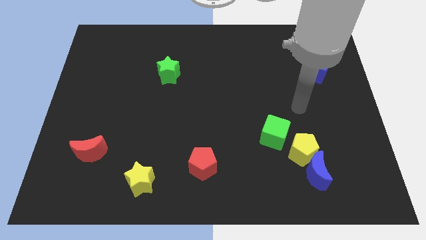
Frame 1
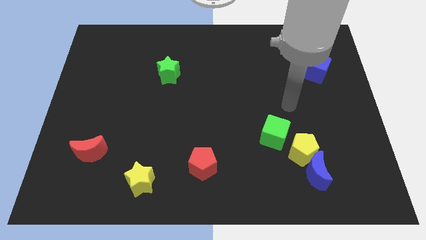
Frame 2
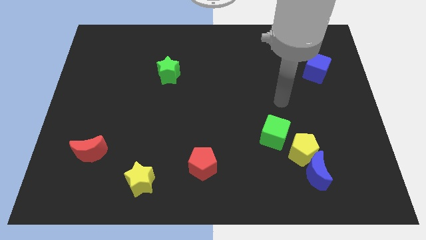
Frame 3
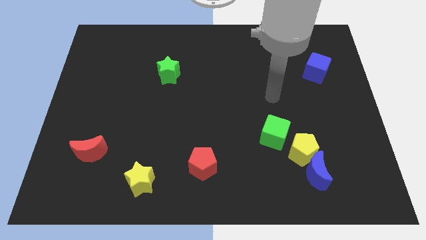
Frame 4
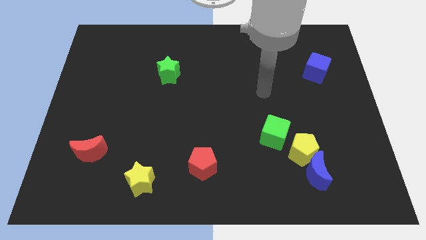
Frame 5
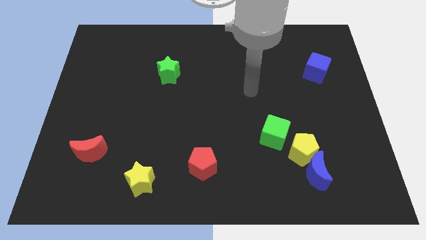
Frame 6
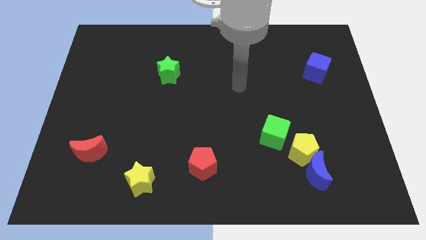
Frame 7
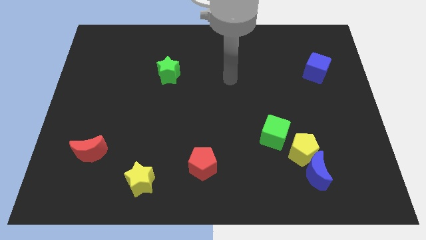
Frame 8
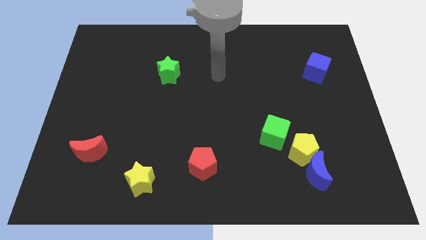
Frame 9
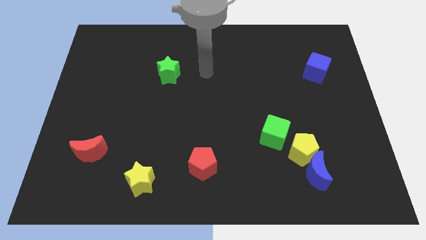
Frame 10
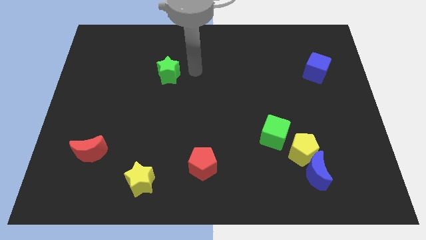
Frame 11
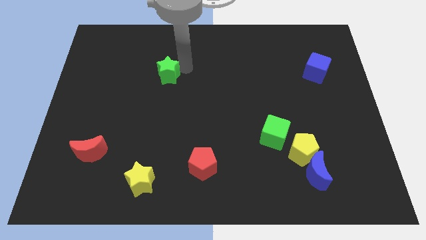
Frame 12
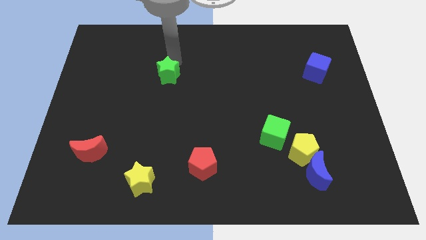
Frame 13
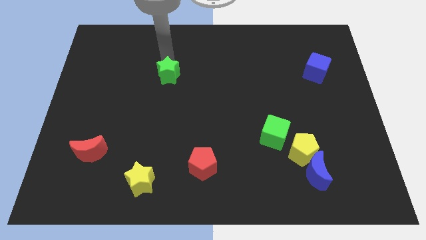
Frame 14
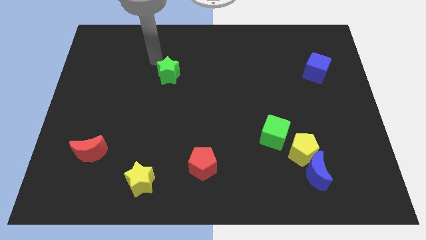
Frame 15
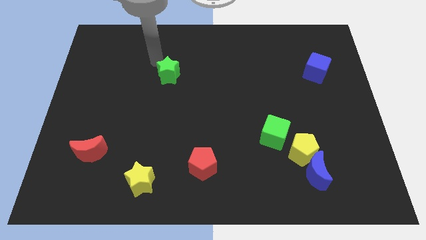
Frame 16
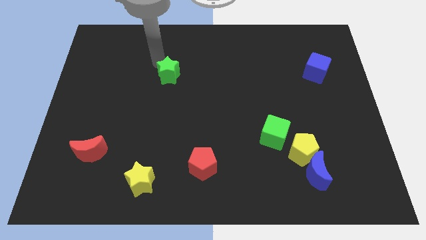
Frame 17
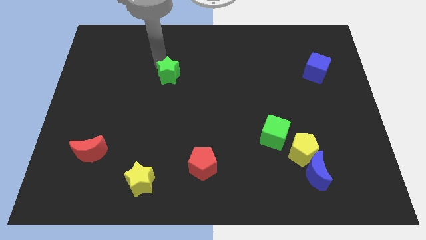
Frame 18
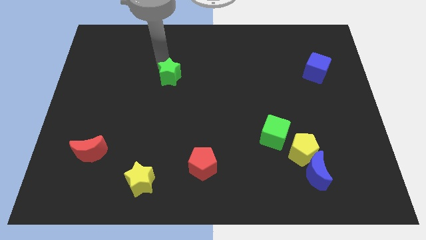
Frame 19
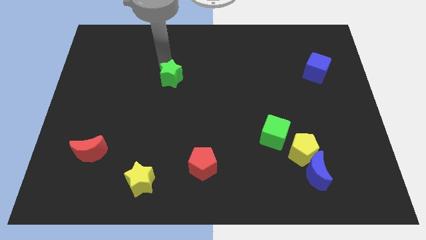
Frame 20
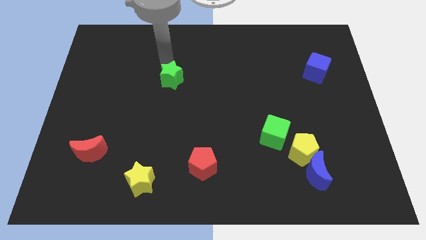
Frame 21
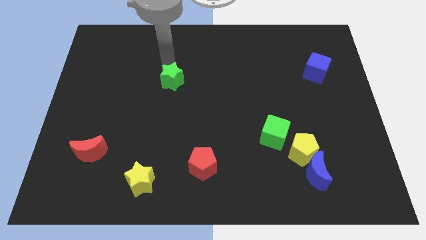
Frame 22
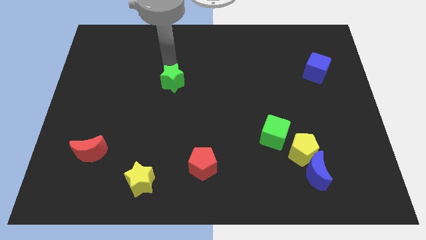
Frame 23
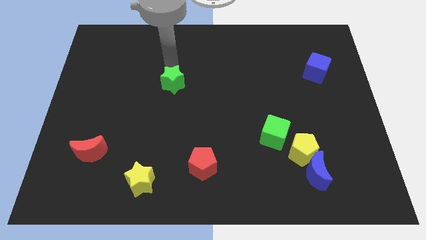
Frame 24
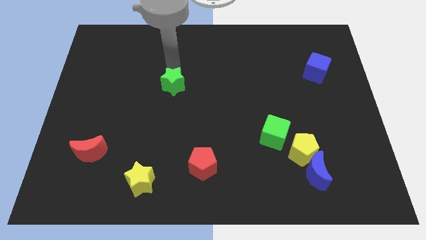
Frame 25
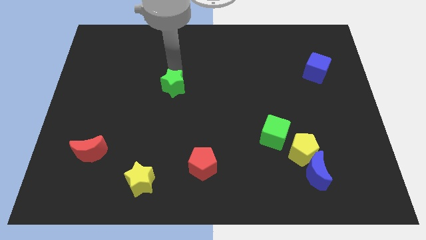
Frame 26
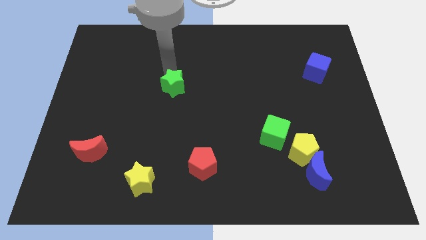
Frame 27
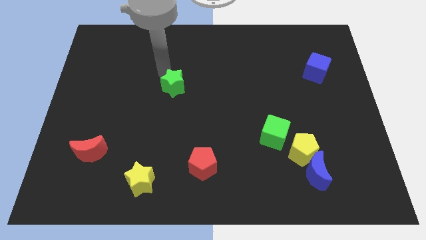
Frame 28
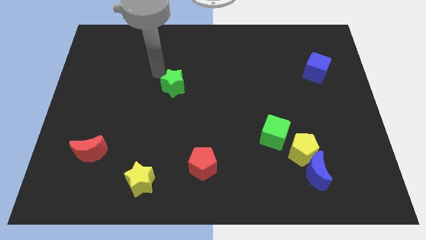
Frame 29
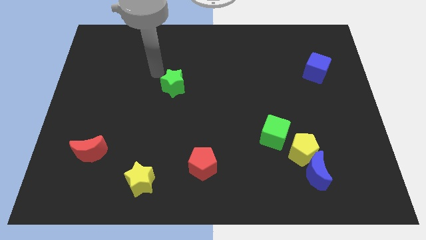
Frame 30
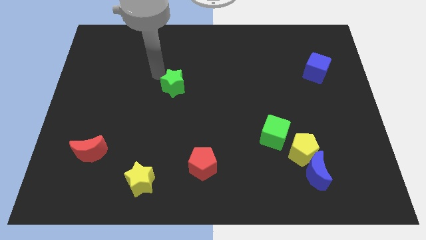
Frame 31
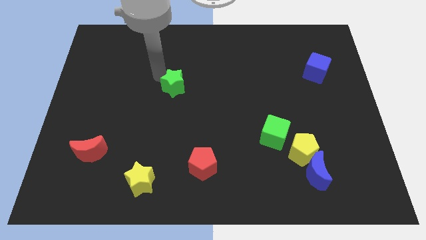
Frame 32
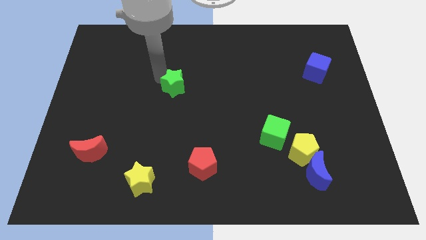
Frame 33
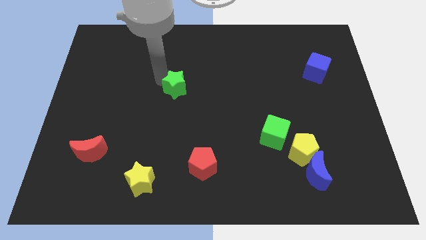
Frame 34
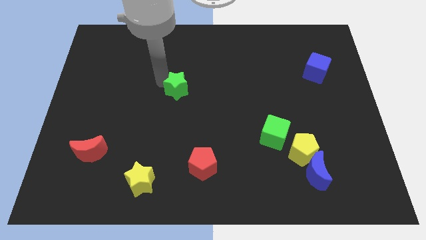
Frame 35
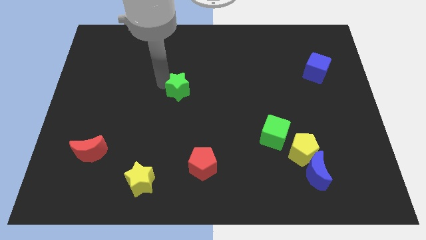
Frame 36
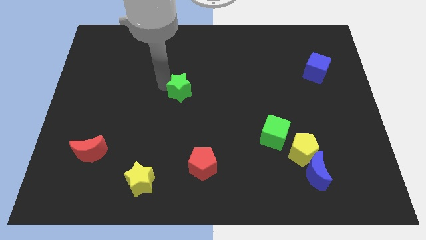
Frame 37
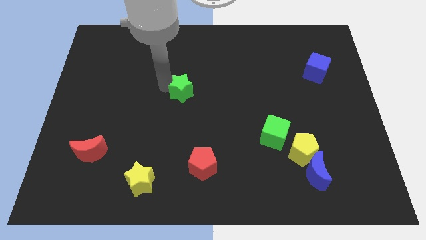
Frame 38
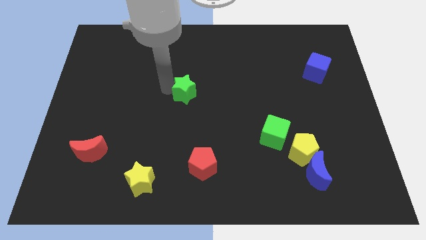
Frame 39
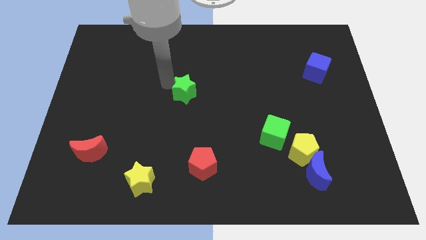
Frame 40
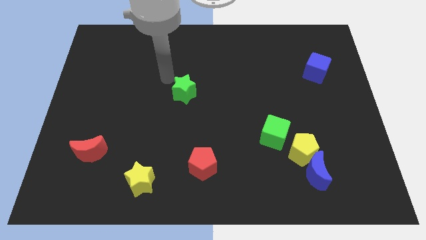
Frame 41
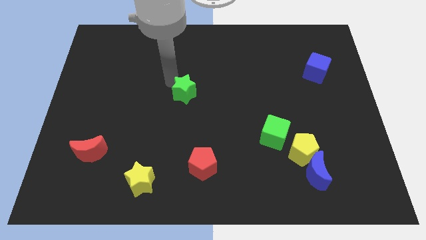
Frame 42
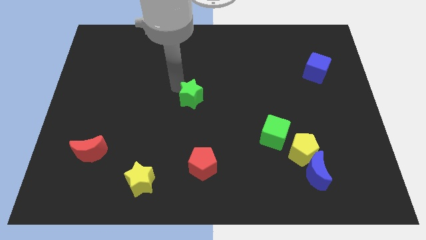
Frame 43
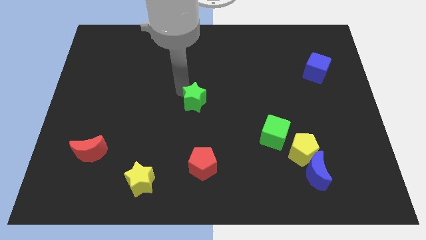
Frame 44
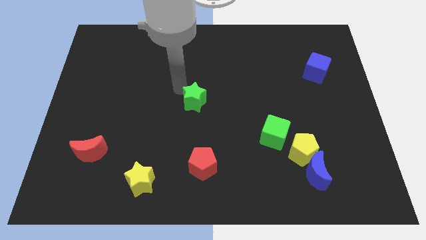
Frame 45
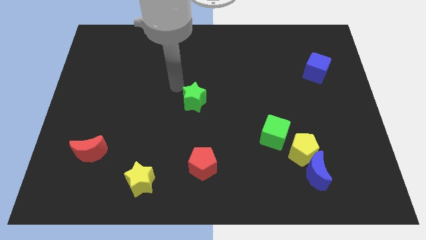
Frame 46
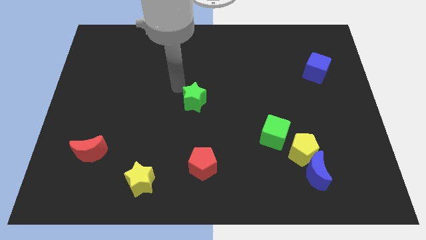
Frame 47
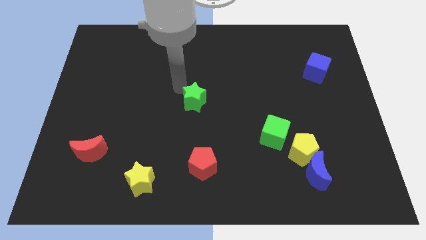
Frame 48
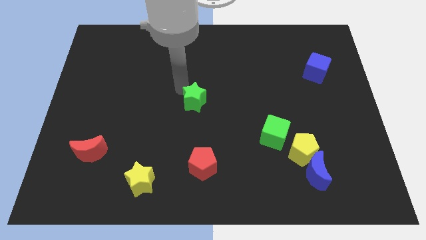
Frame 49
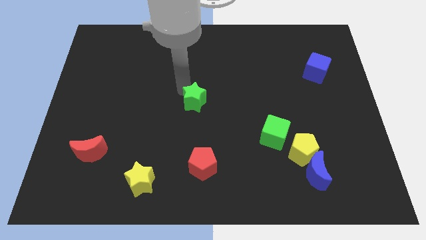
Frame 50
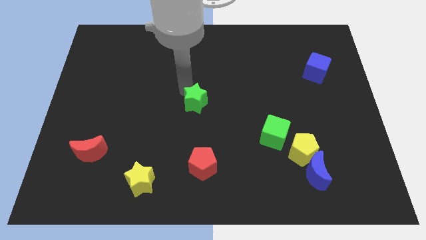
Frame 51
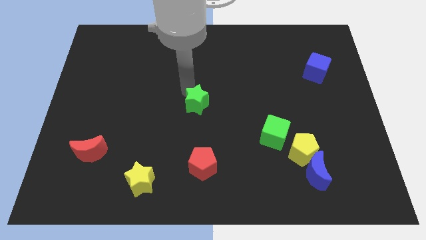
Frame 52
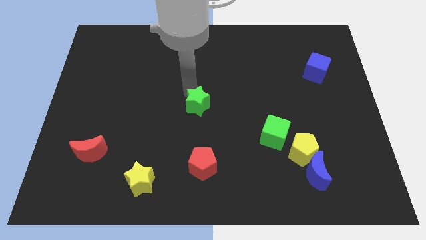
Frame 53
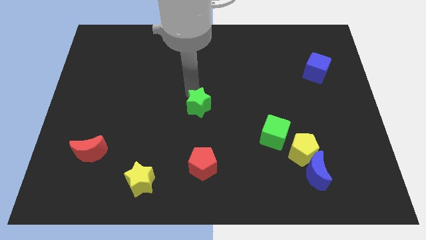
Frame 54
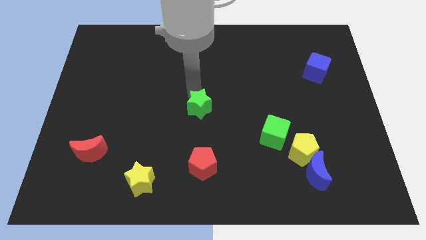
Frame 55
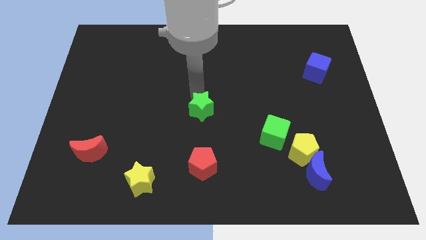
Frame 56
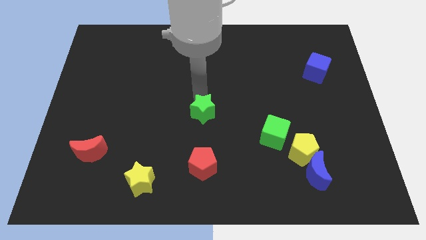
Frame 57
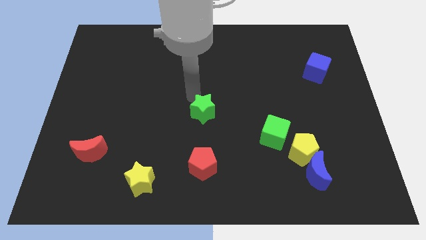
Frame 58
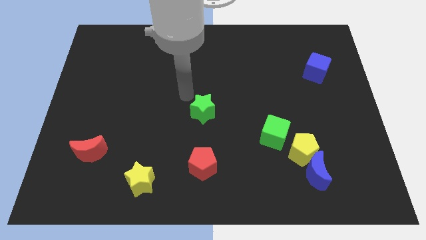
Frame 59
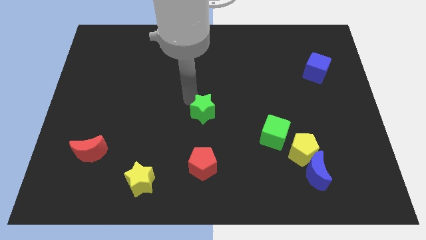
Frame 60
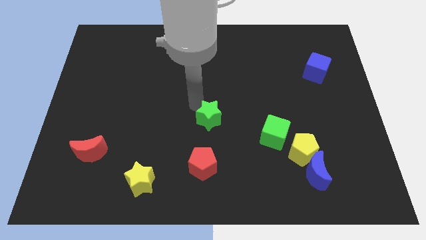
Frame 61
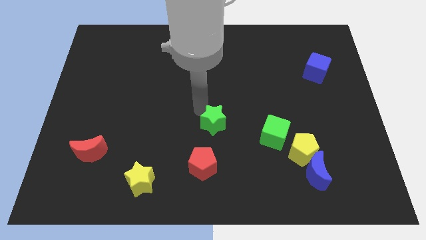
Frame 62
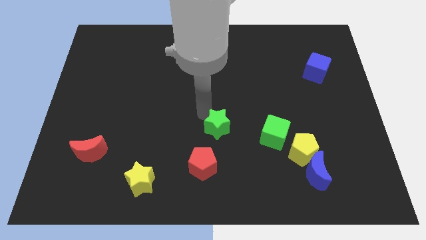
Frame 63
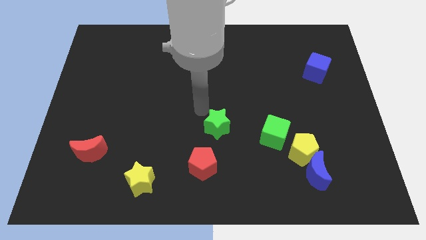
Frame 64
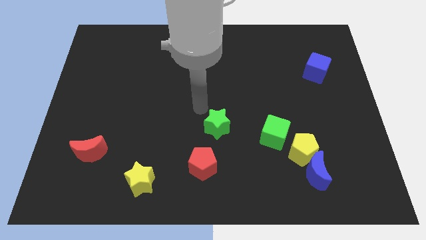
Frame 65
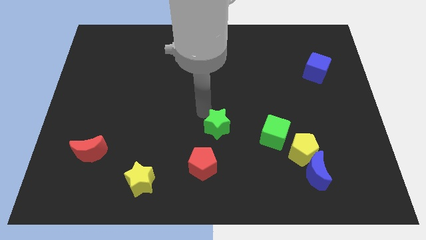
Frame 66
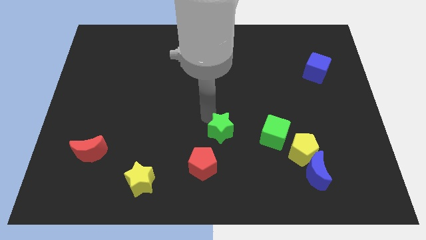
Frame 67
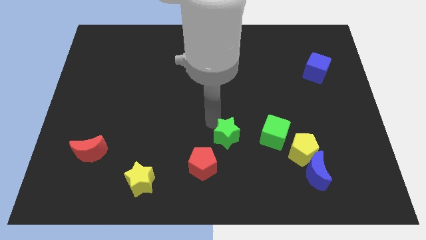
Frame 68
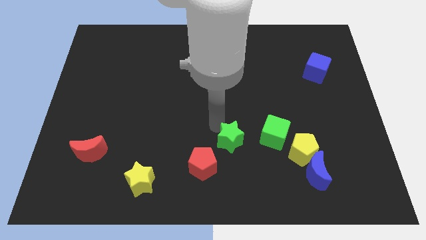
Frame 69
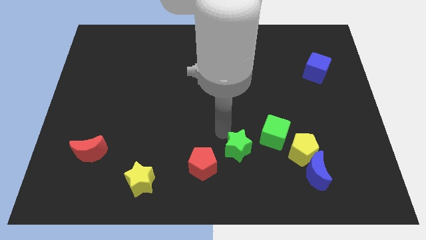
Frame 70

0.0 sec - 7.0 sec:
move the green star right of the red pentagon

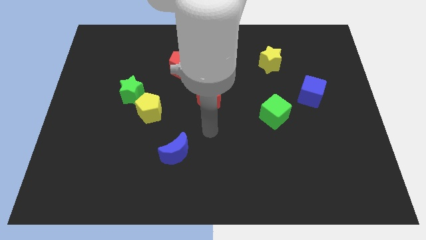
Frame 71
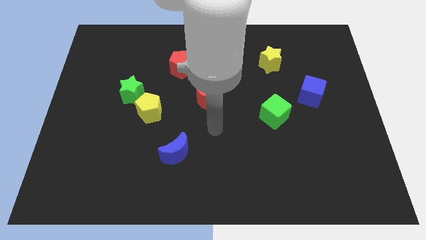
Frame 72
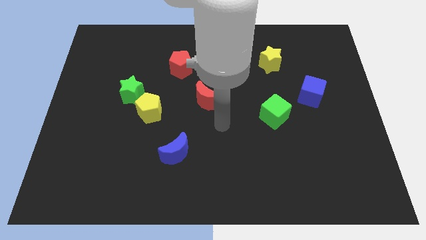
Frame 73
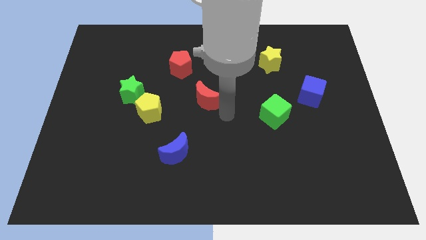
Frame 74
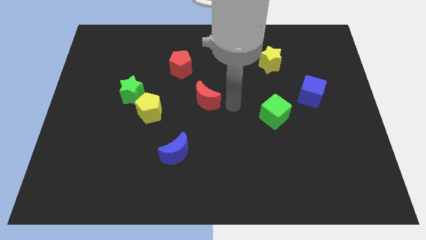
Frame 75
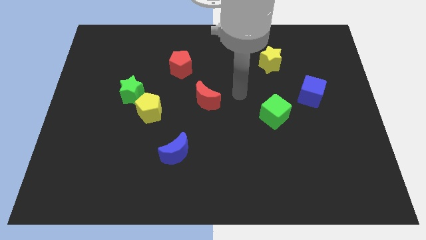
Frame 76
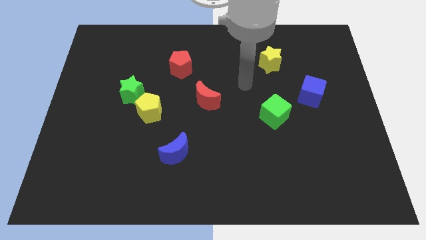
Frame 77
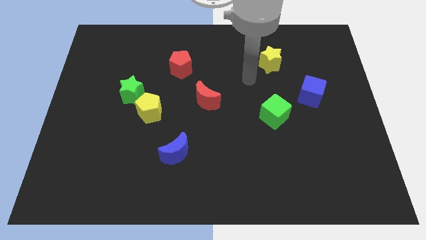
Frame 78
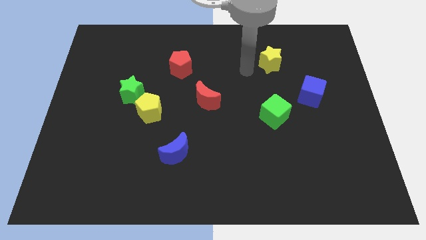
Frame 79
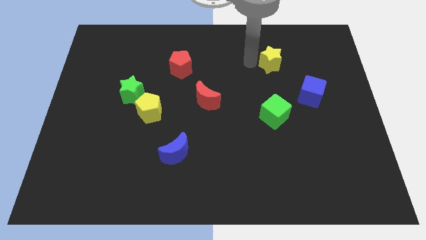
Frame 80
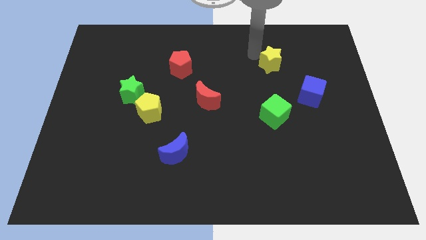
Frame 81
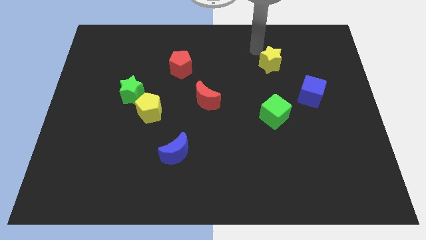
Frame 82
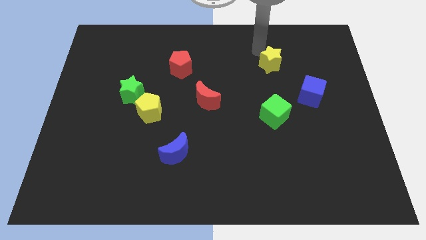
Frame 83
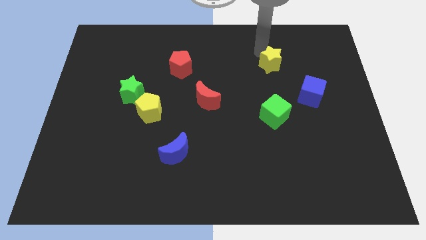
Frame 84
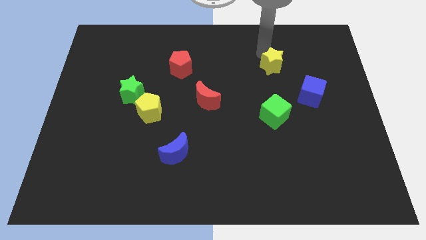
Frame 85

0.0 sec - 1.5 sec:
push the yellow star to the top left side of the blue cube
